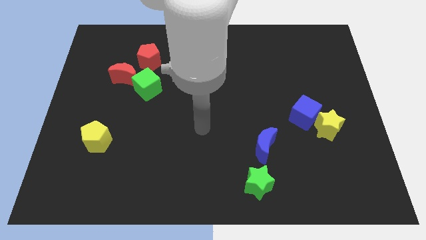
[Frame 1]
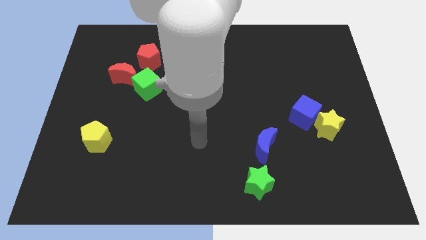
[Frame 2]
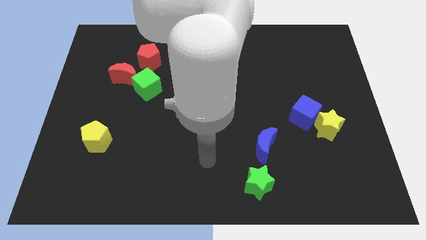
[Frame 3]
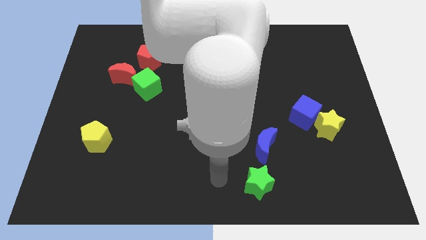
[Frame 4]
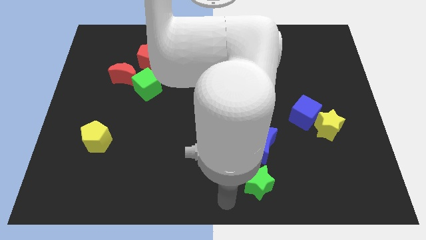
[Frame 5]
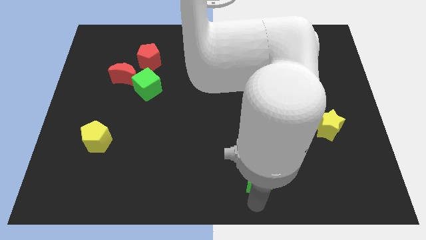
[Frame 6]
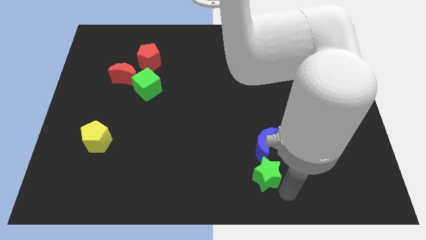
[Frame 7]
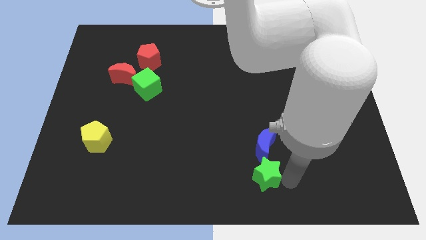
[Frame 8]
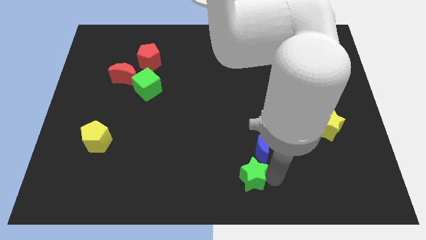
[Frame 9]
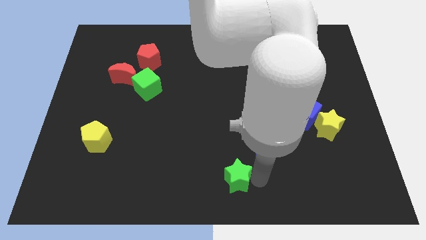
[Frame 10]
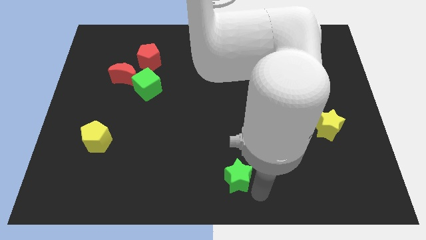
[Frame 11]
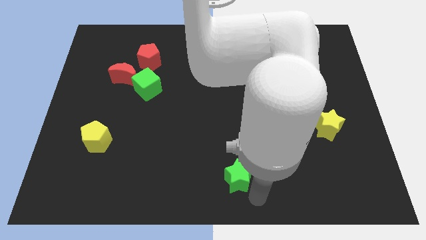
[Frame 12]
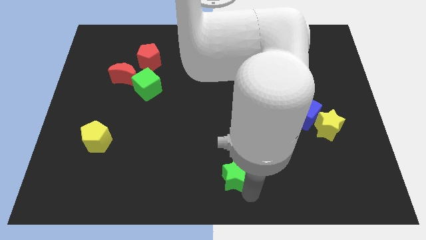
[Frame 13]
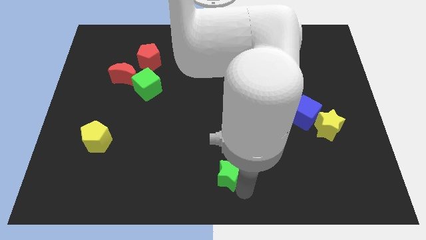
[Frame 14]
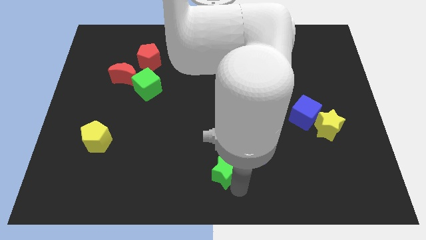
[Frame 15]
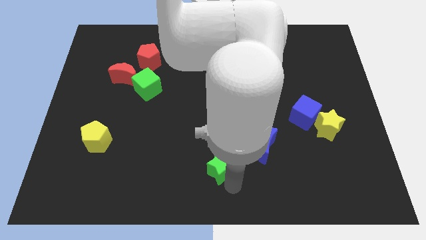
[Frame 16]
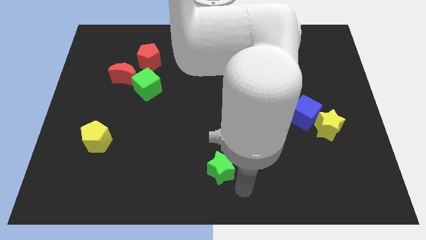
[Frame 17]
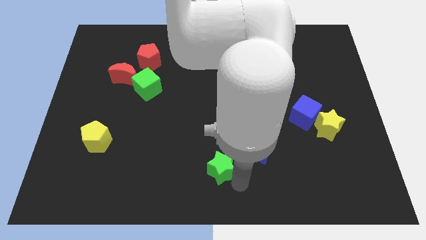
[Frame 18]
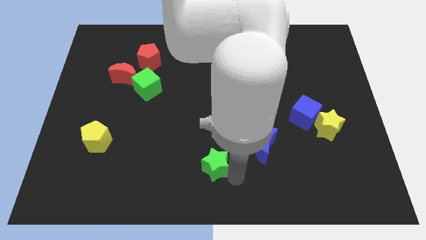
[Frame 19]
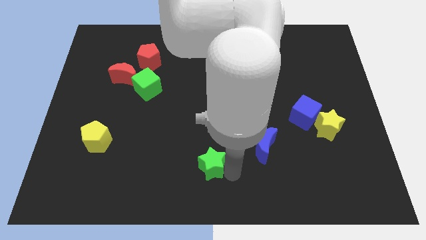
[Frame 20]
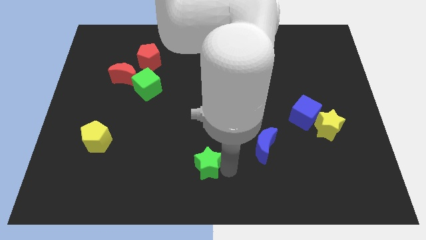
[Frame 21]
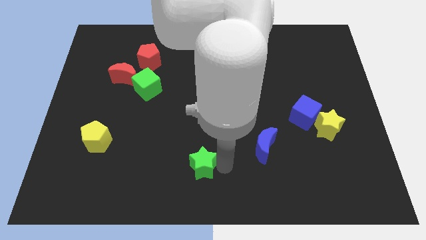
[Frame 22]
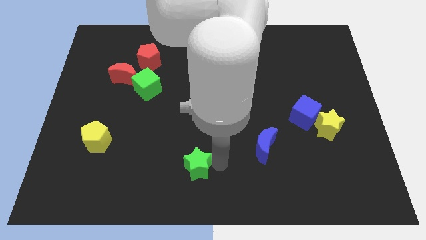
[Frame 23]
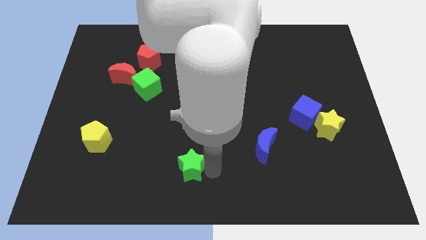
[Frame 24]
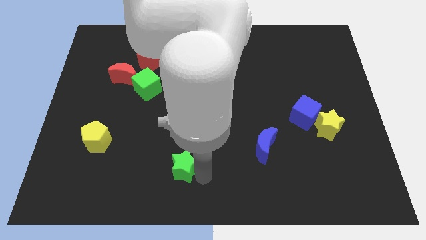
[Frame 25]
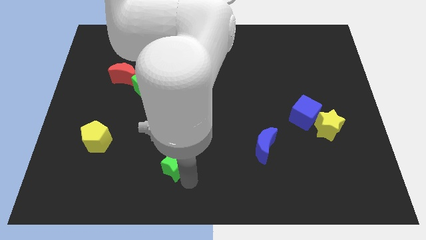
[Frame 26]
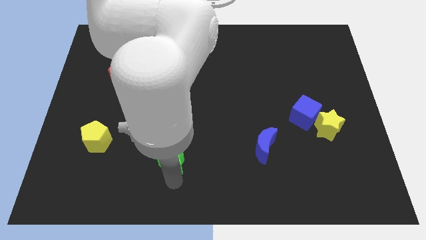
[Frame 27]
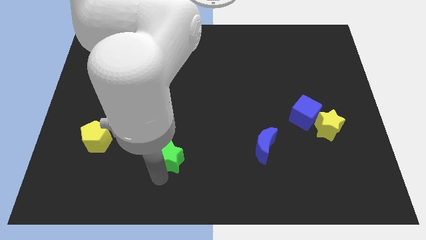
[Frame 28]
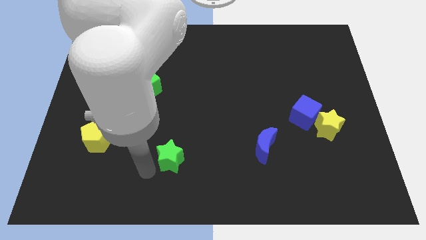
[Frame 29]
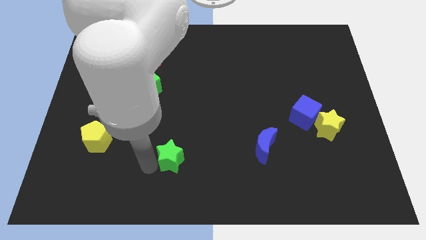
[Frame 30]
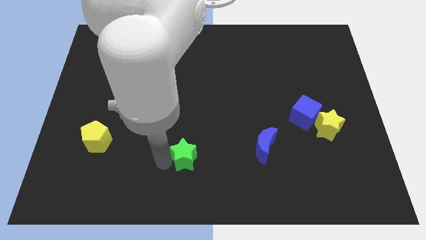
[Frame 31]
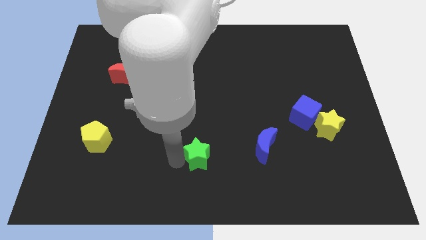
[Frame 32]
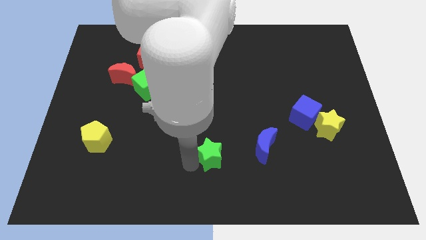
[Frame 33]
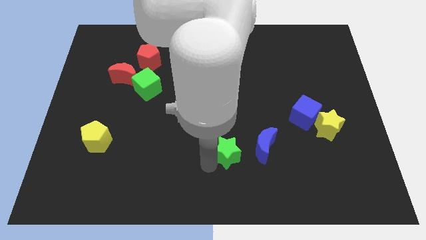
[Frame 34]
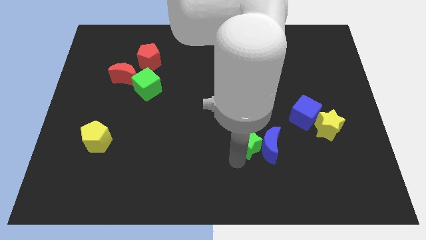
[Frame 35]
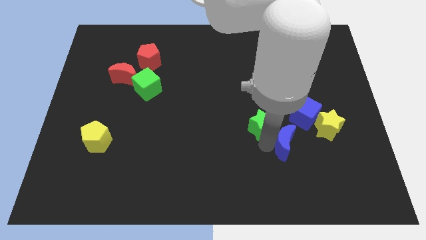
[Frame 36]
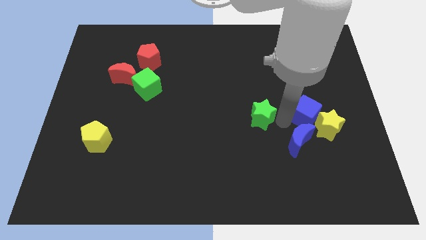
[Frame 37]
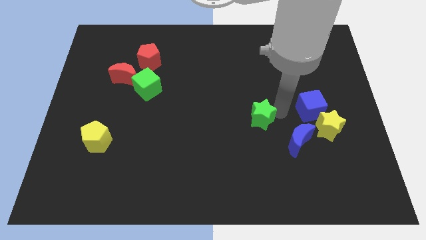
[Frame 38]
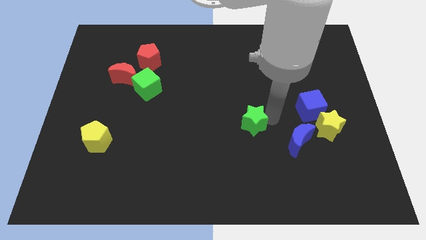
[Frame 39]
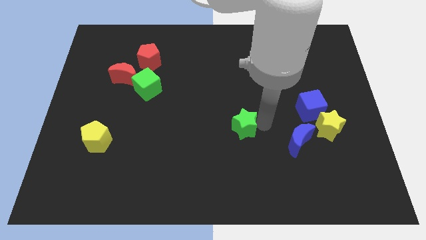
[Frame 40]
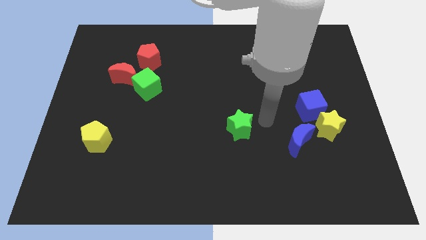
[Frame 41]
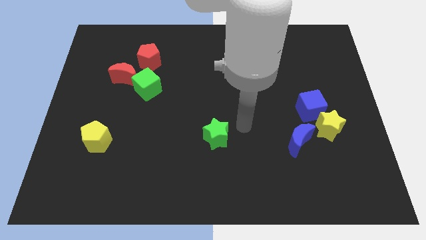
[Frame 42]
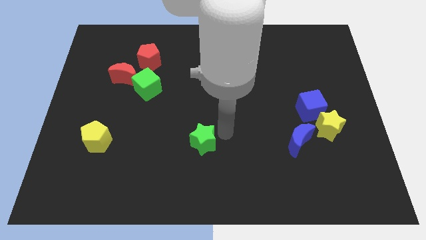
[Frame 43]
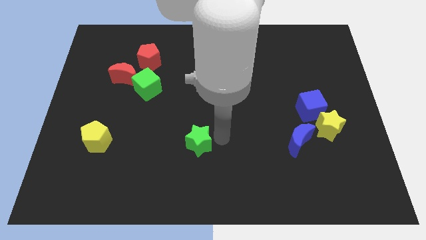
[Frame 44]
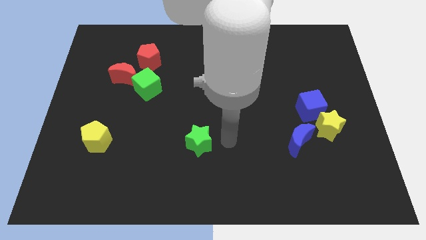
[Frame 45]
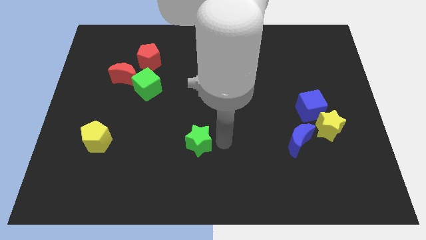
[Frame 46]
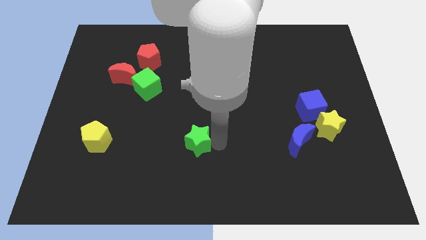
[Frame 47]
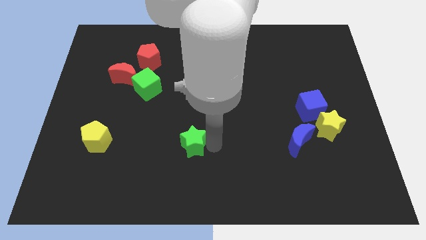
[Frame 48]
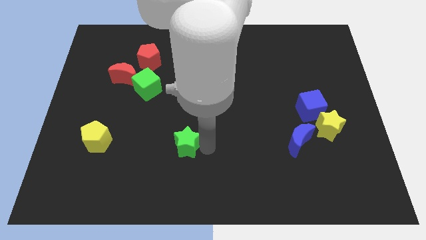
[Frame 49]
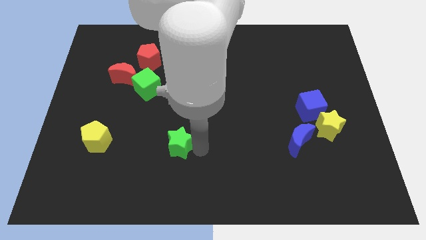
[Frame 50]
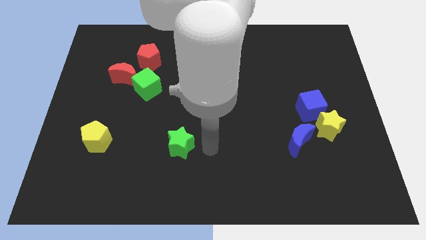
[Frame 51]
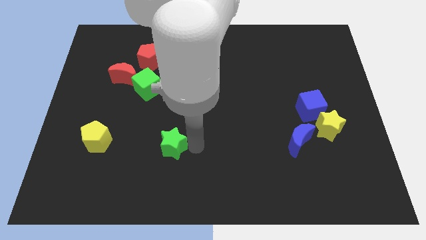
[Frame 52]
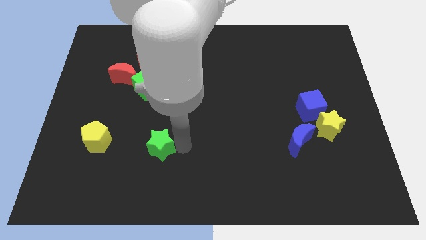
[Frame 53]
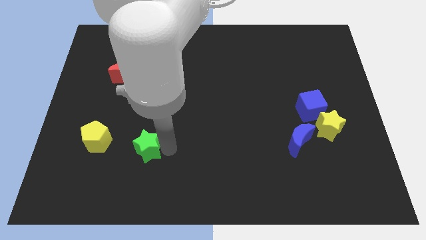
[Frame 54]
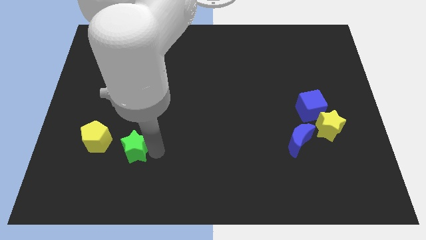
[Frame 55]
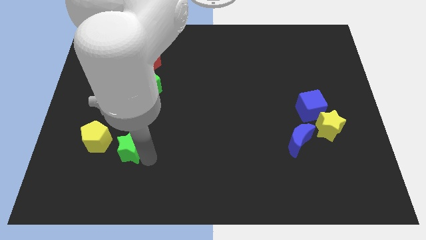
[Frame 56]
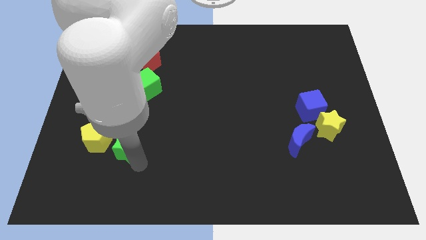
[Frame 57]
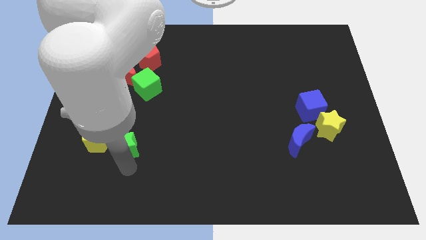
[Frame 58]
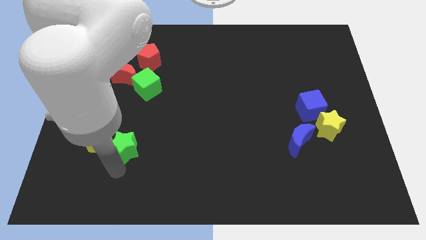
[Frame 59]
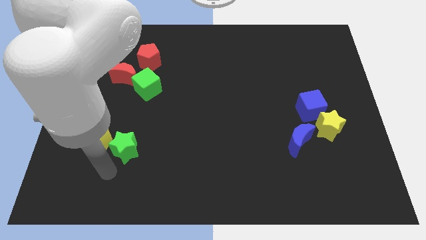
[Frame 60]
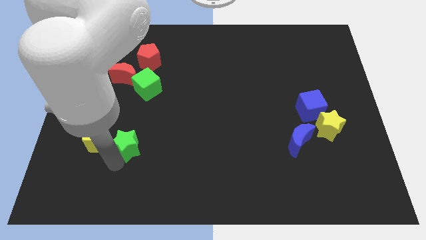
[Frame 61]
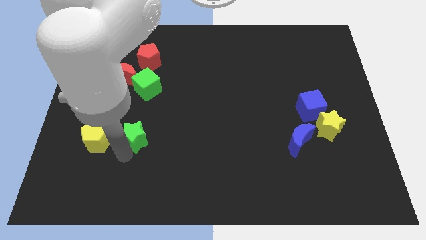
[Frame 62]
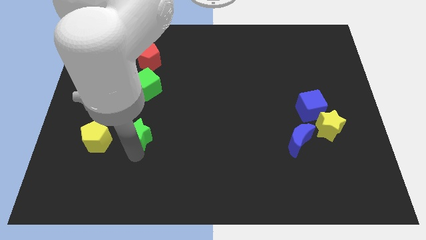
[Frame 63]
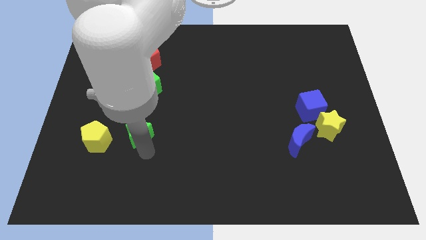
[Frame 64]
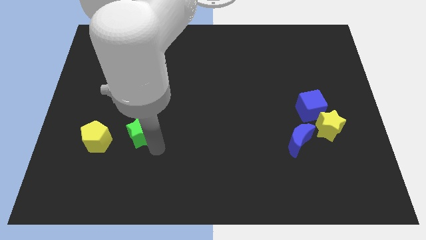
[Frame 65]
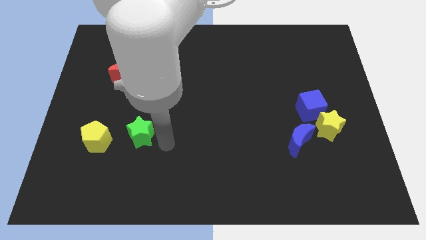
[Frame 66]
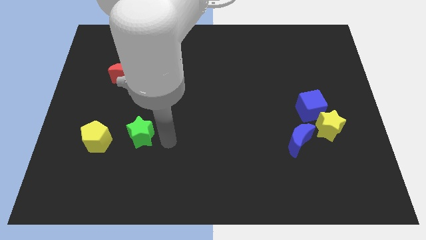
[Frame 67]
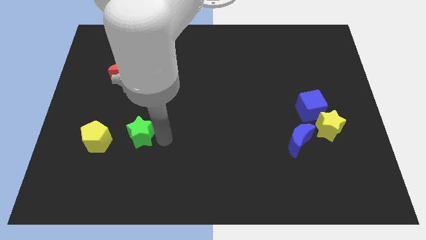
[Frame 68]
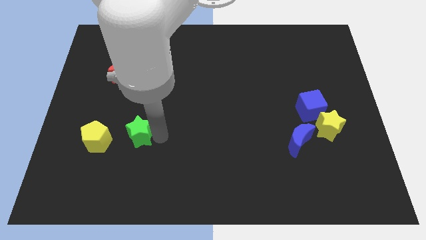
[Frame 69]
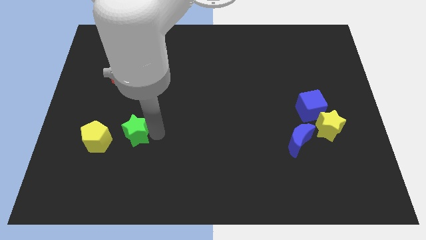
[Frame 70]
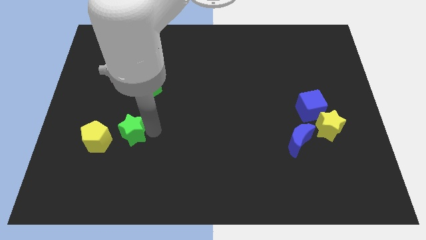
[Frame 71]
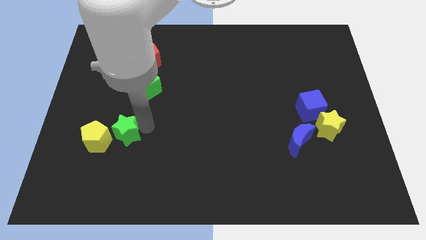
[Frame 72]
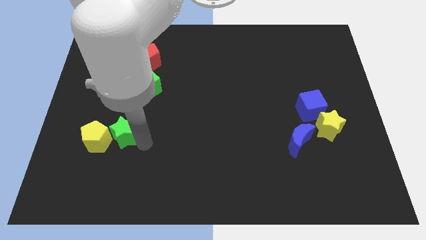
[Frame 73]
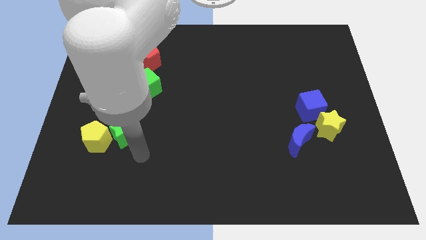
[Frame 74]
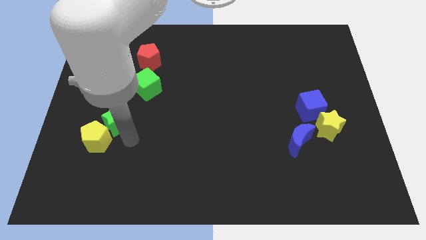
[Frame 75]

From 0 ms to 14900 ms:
put the green star to the top of the yellow pentagon

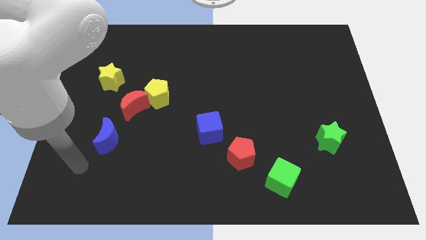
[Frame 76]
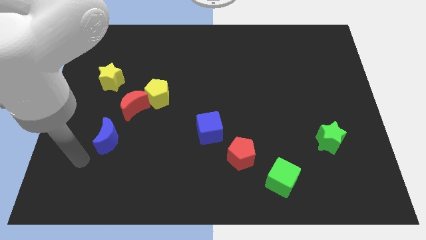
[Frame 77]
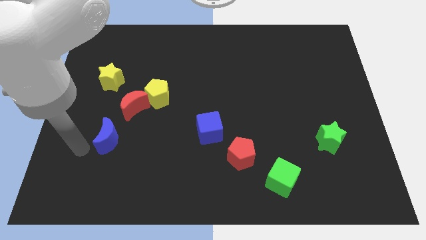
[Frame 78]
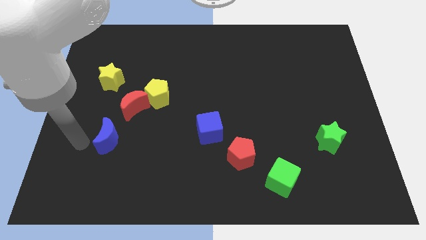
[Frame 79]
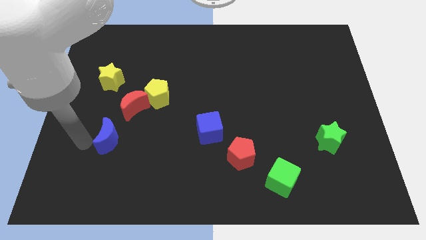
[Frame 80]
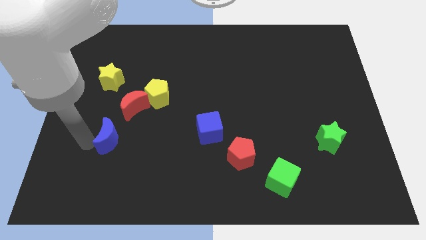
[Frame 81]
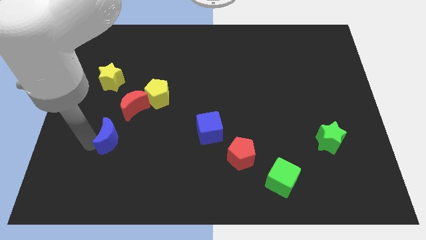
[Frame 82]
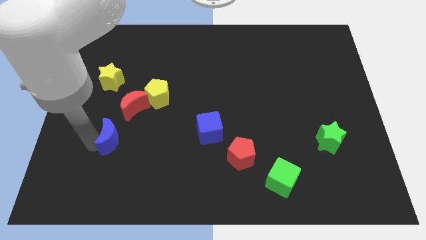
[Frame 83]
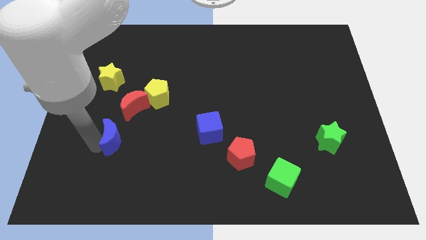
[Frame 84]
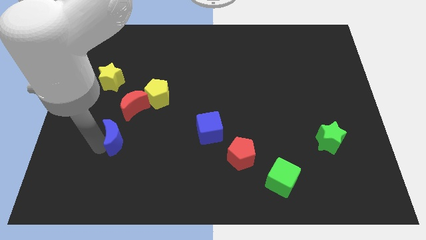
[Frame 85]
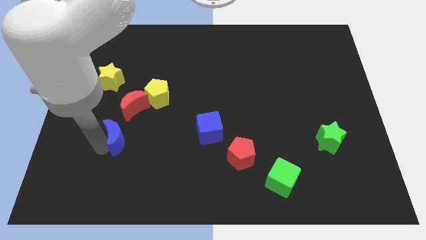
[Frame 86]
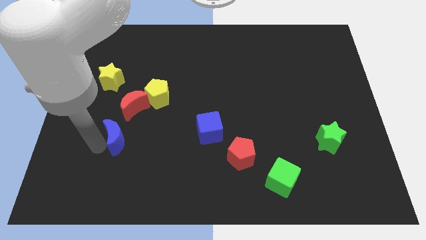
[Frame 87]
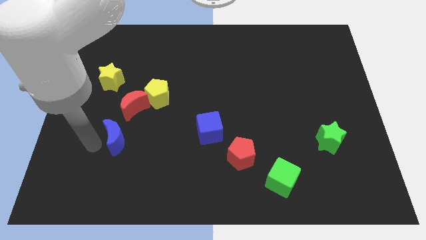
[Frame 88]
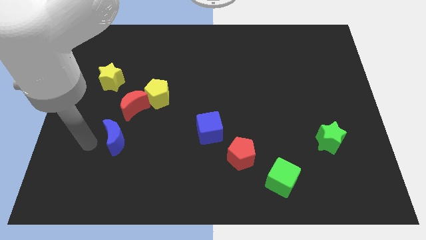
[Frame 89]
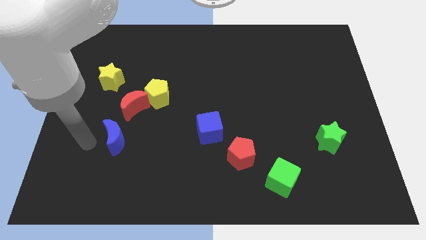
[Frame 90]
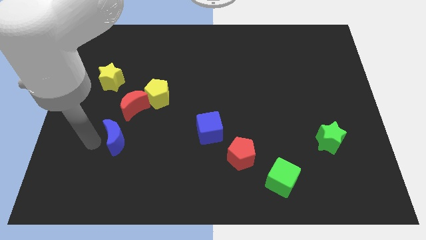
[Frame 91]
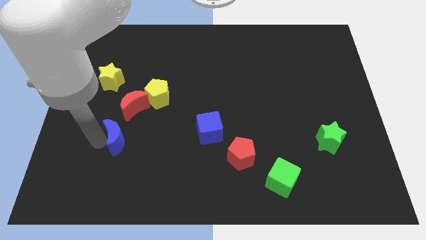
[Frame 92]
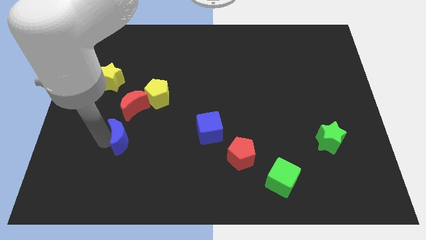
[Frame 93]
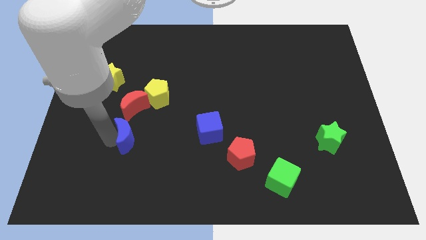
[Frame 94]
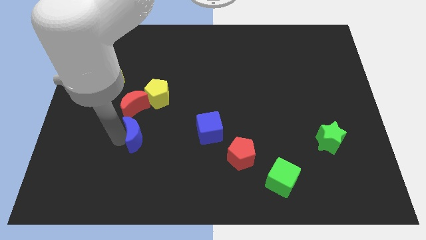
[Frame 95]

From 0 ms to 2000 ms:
put the blue moon to the bottom side of the yellow pentagon
